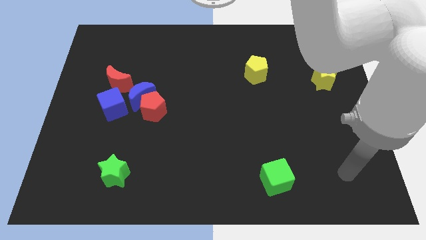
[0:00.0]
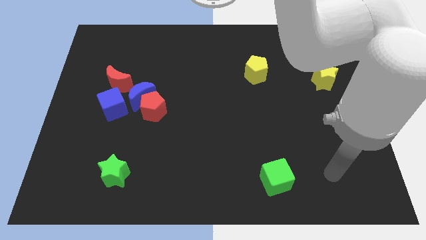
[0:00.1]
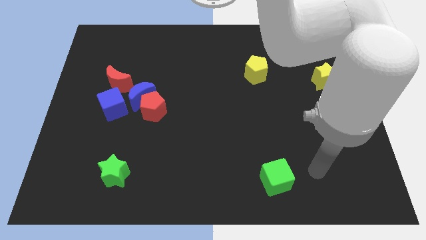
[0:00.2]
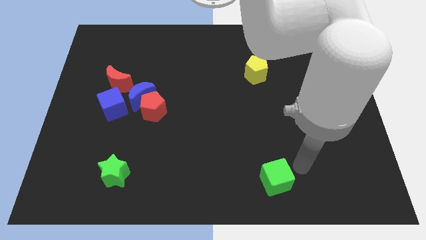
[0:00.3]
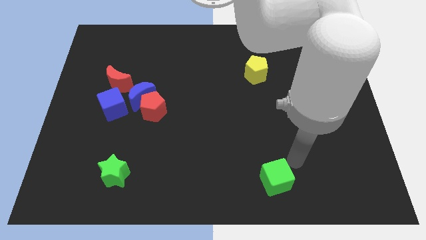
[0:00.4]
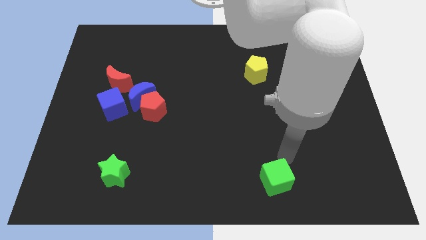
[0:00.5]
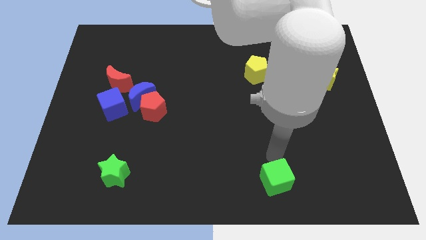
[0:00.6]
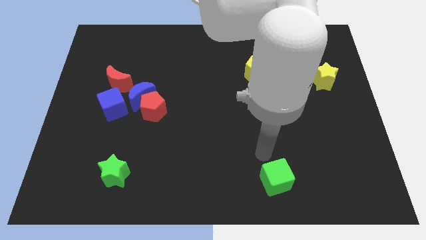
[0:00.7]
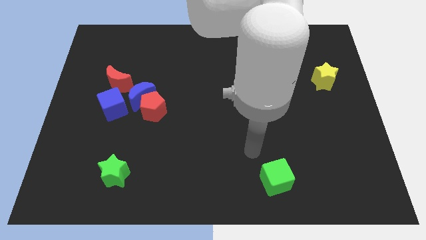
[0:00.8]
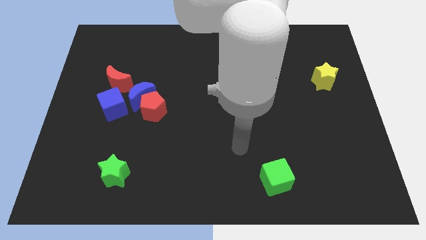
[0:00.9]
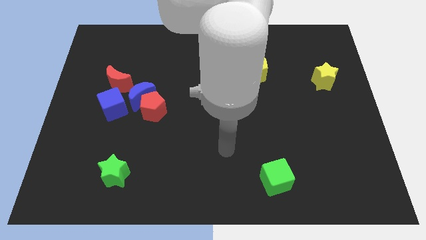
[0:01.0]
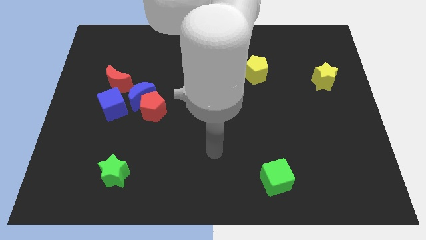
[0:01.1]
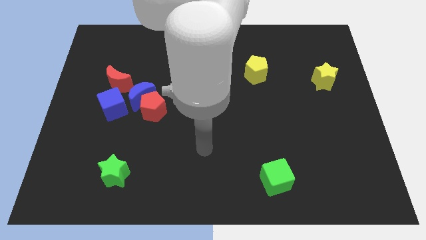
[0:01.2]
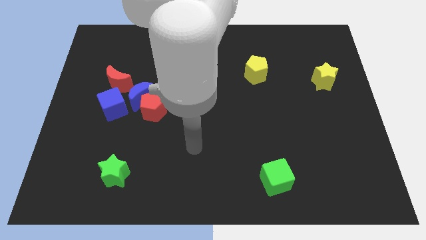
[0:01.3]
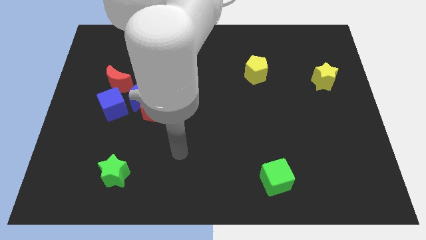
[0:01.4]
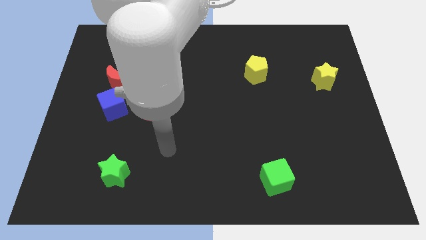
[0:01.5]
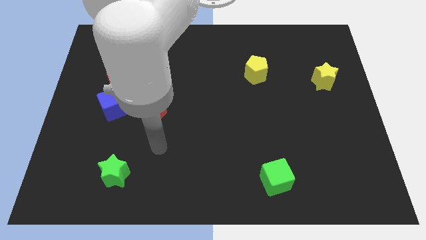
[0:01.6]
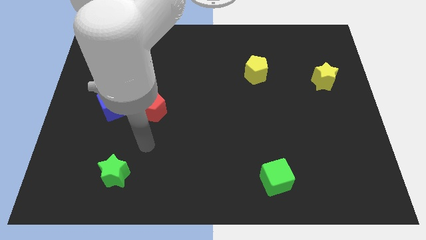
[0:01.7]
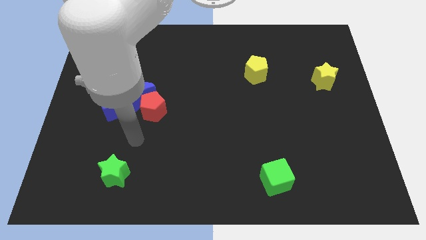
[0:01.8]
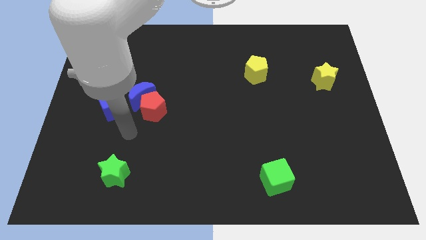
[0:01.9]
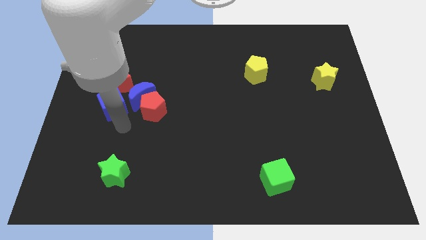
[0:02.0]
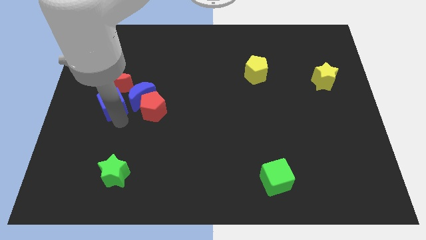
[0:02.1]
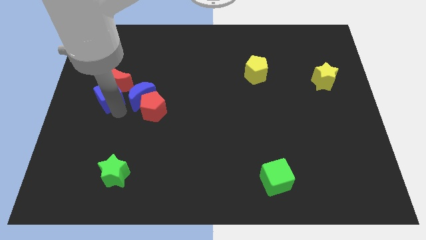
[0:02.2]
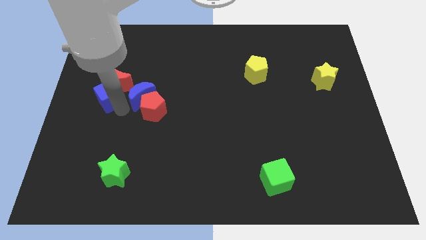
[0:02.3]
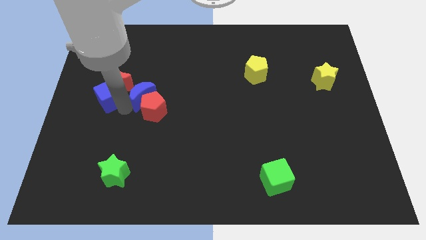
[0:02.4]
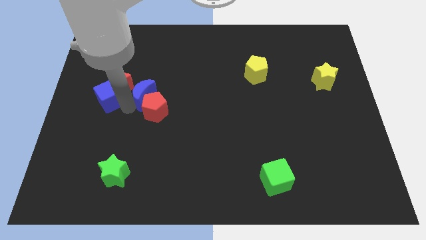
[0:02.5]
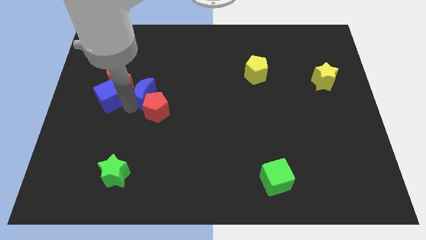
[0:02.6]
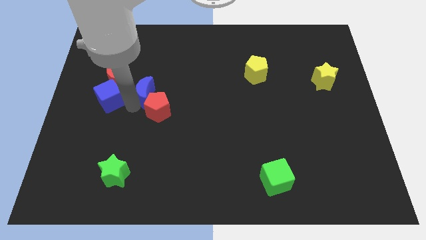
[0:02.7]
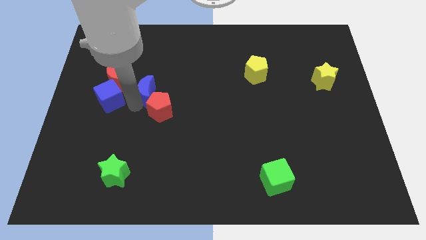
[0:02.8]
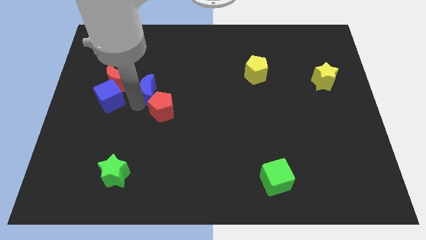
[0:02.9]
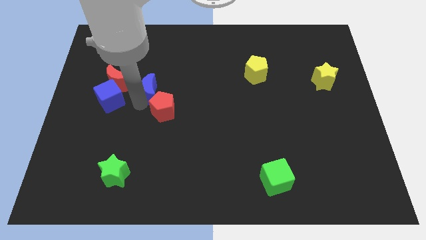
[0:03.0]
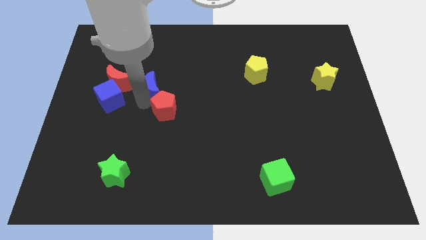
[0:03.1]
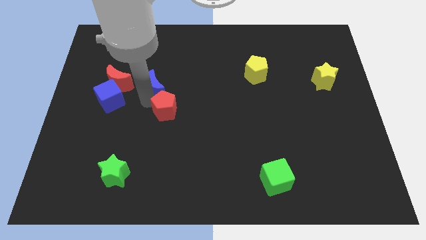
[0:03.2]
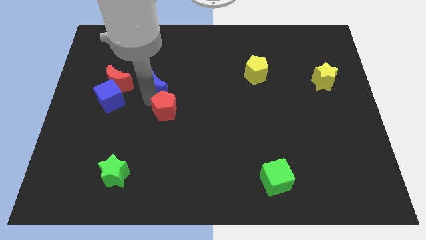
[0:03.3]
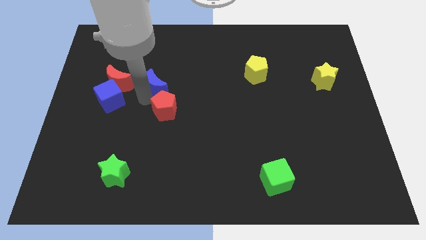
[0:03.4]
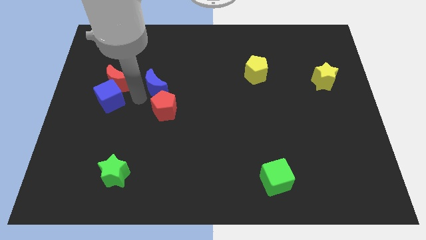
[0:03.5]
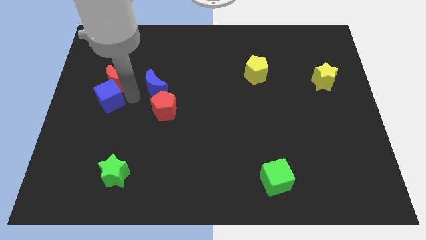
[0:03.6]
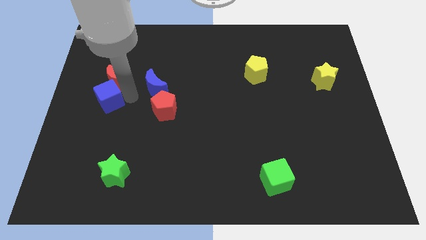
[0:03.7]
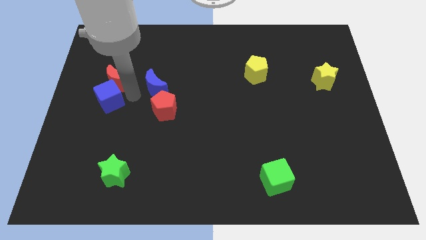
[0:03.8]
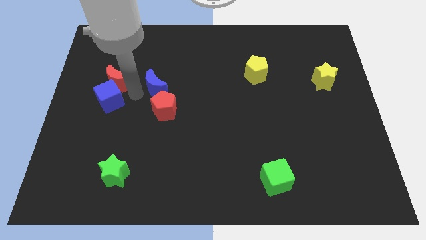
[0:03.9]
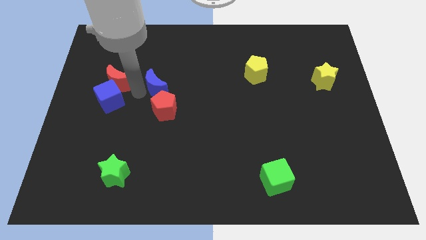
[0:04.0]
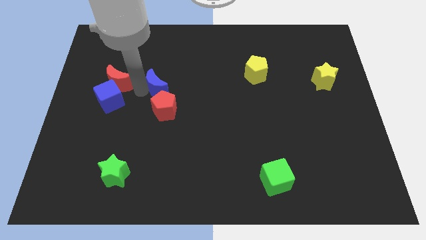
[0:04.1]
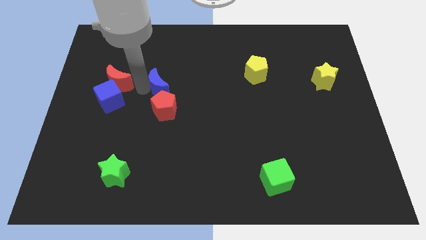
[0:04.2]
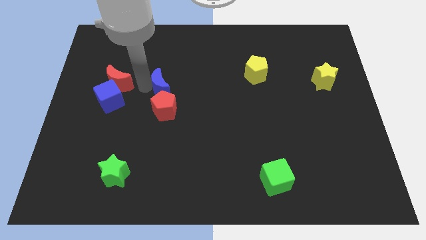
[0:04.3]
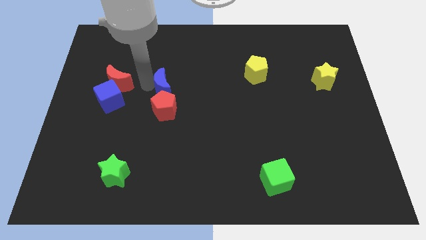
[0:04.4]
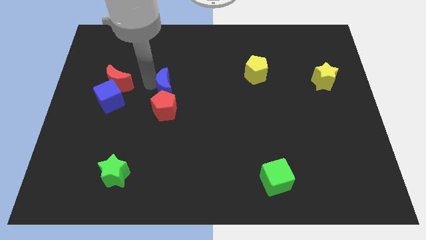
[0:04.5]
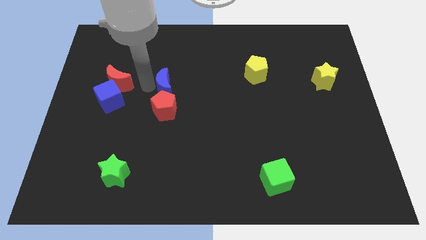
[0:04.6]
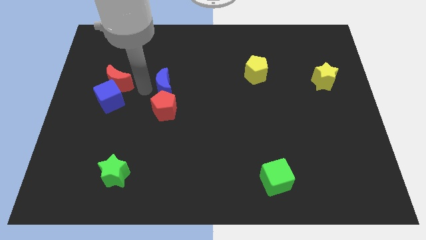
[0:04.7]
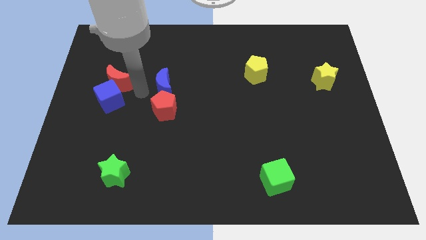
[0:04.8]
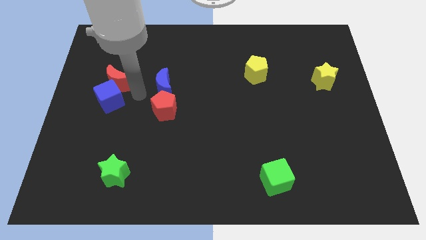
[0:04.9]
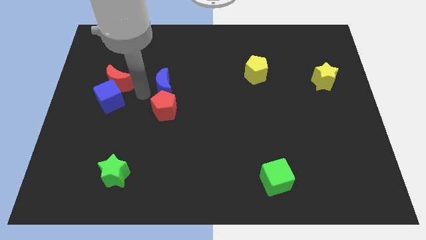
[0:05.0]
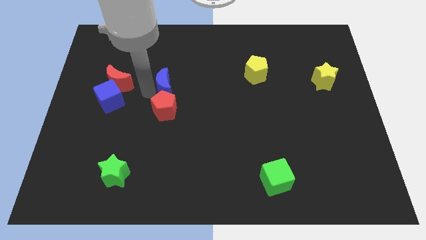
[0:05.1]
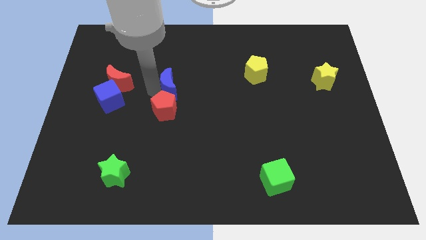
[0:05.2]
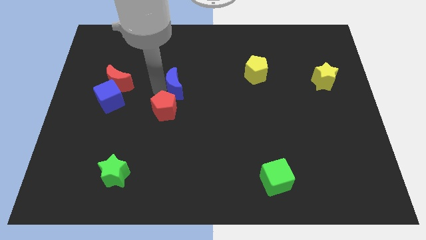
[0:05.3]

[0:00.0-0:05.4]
pull the blue moon apart from the red pentagon, blue cube, and red moon

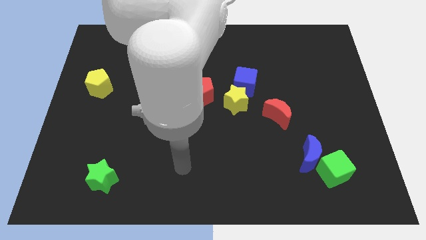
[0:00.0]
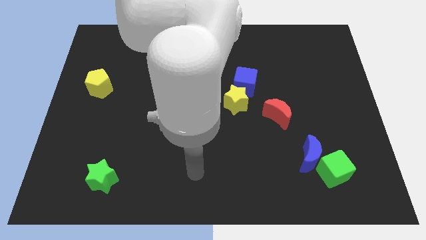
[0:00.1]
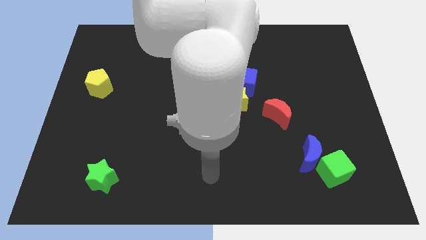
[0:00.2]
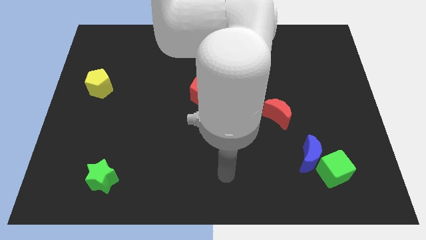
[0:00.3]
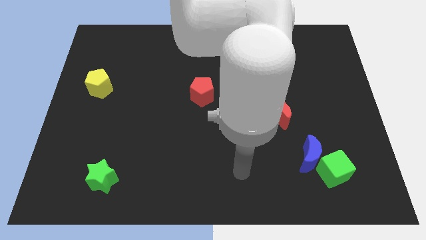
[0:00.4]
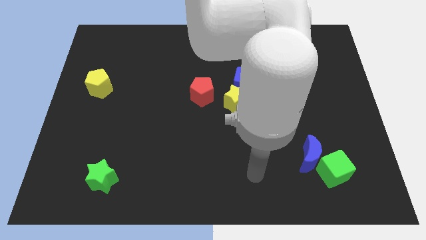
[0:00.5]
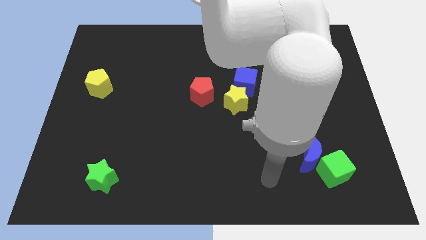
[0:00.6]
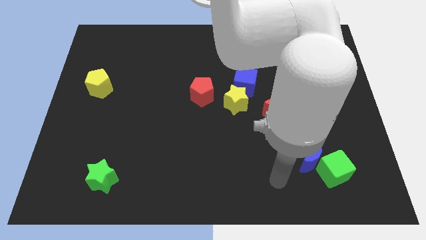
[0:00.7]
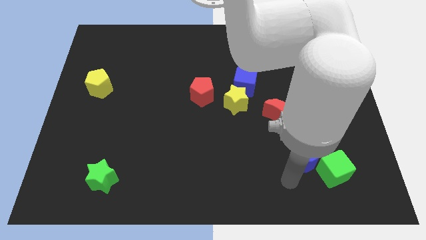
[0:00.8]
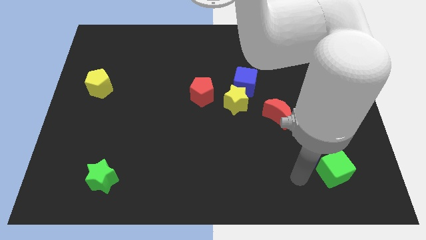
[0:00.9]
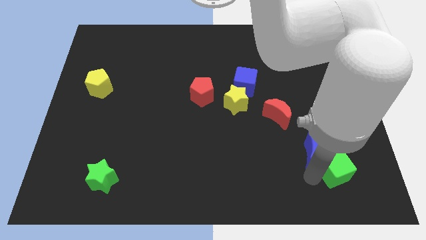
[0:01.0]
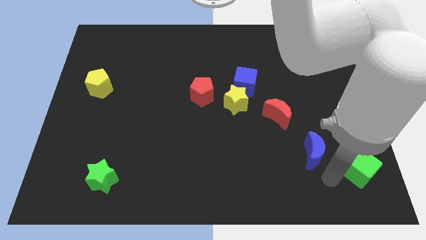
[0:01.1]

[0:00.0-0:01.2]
pull the blue moon apart from the green cube

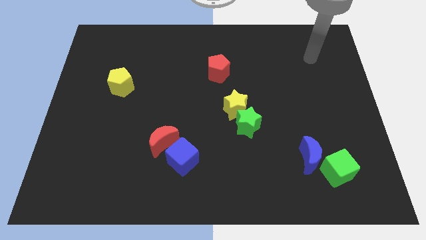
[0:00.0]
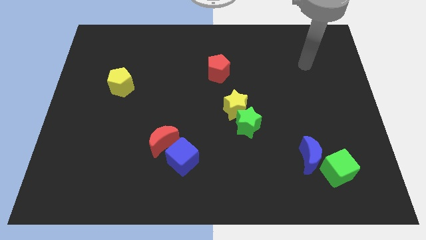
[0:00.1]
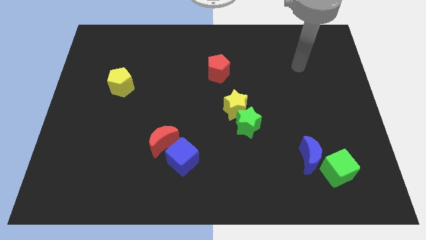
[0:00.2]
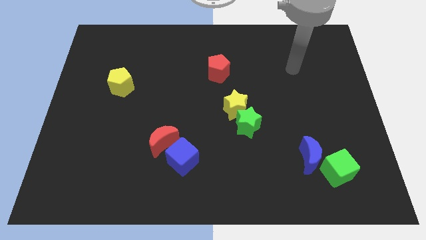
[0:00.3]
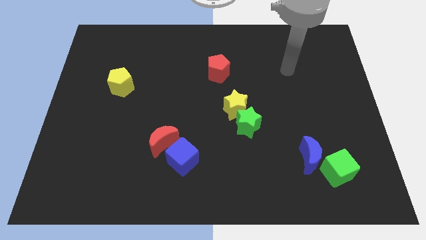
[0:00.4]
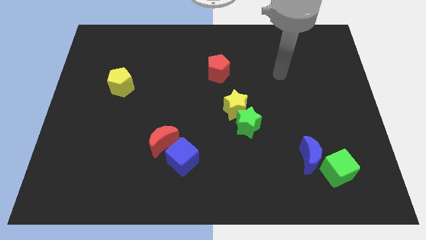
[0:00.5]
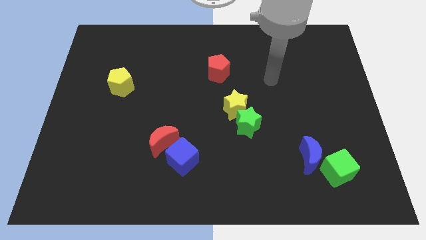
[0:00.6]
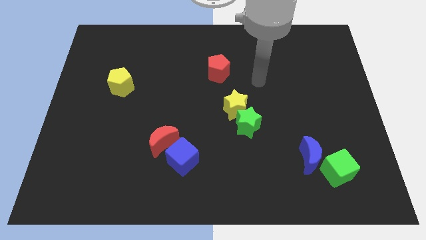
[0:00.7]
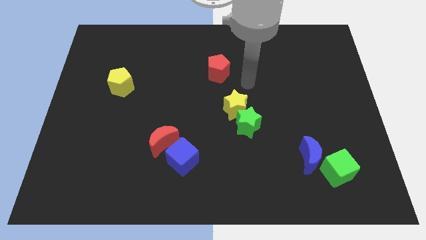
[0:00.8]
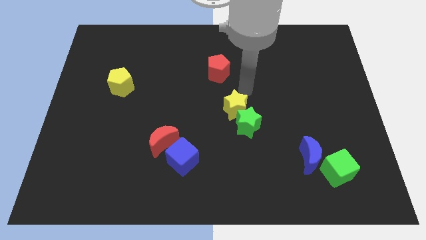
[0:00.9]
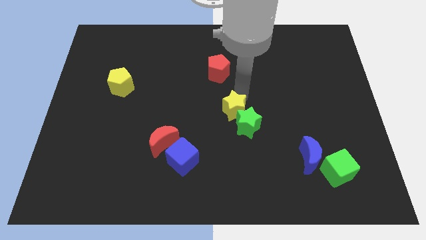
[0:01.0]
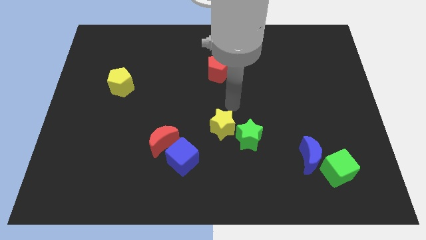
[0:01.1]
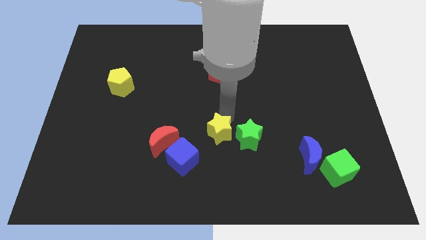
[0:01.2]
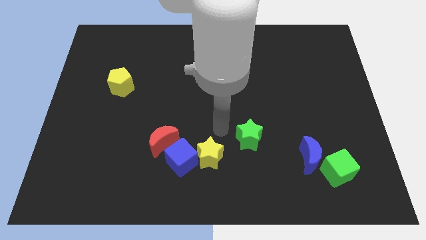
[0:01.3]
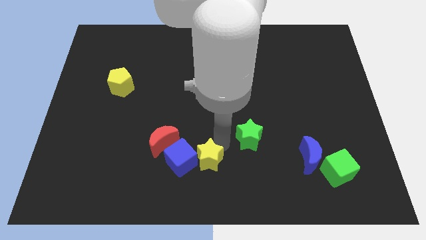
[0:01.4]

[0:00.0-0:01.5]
separate the green star from the yellow star

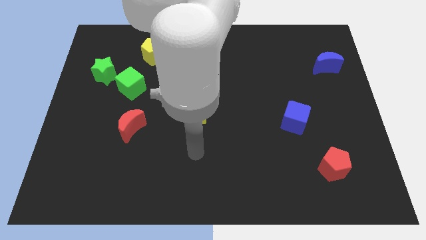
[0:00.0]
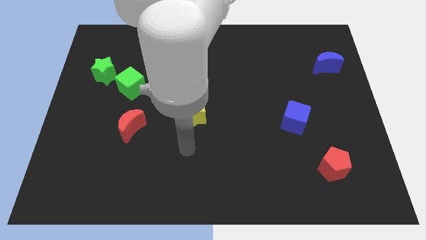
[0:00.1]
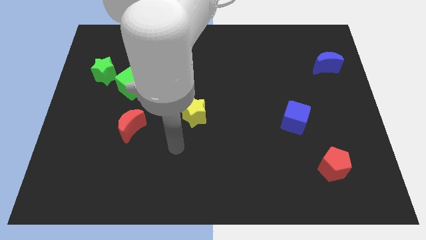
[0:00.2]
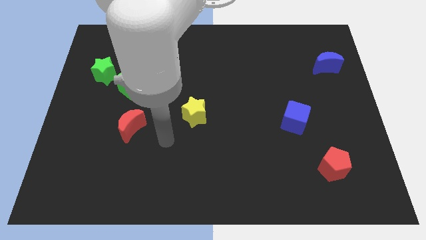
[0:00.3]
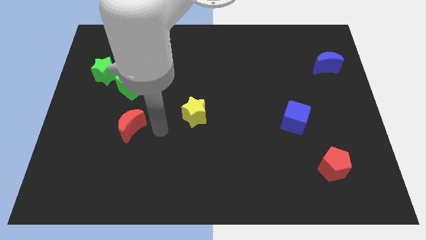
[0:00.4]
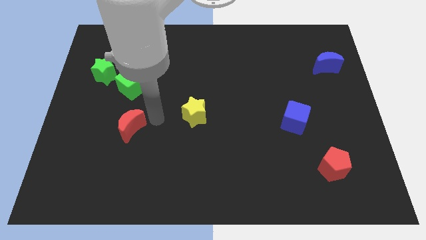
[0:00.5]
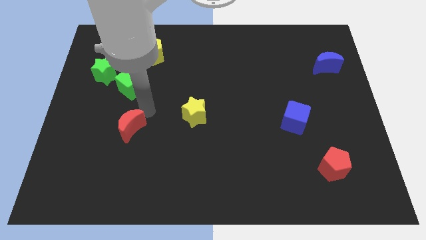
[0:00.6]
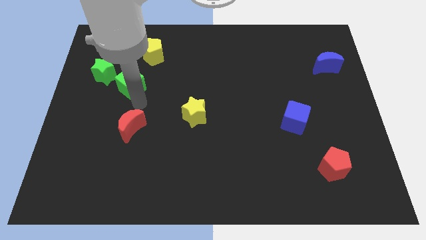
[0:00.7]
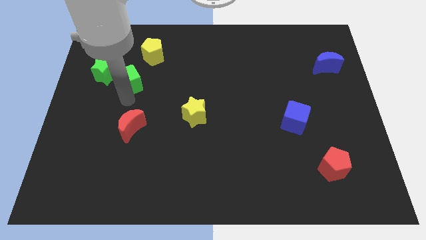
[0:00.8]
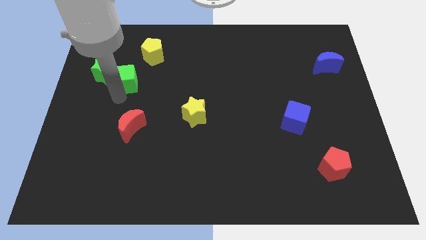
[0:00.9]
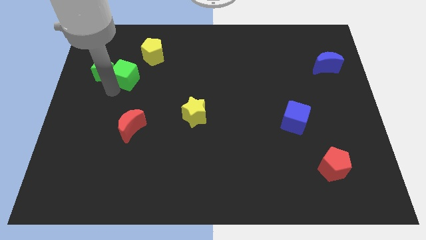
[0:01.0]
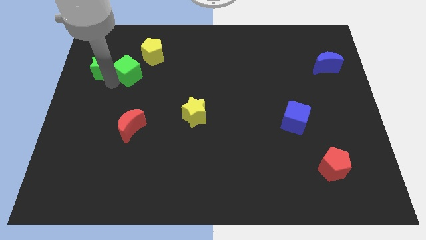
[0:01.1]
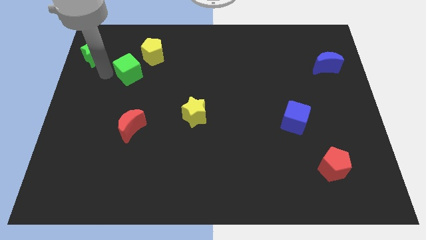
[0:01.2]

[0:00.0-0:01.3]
separate the green cube from the green star
